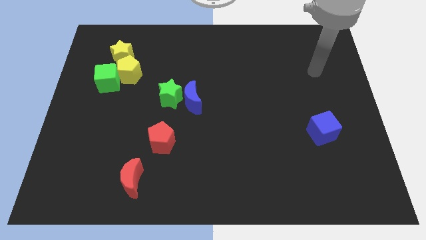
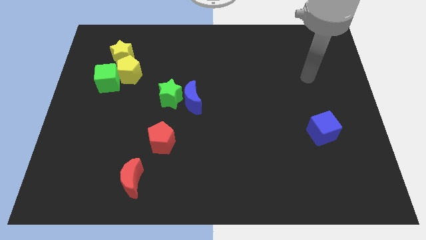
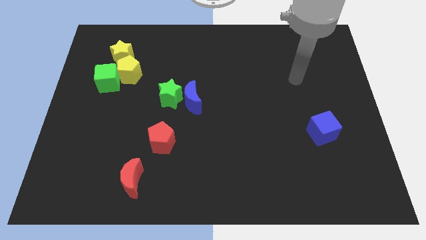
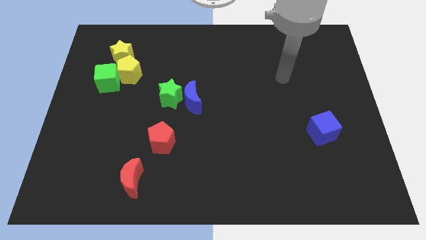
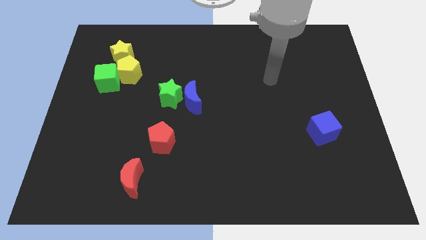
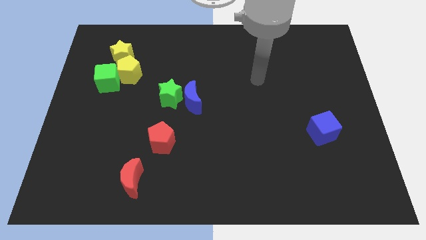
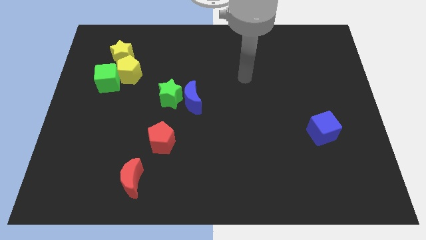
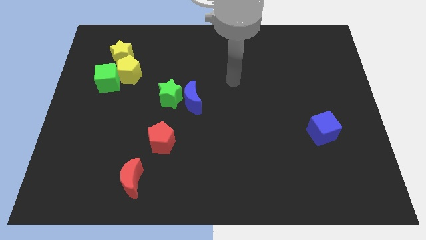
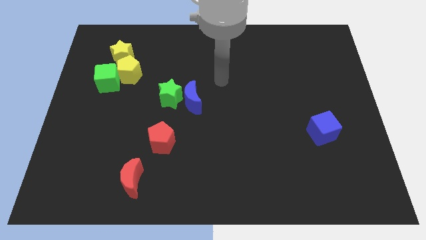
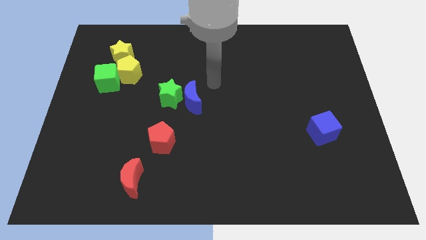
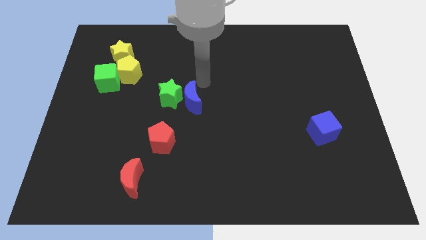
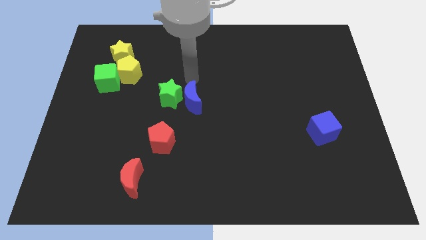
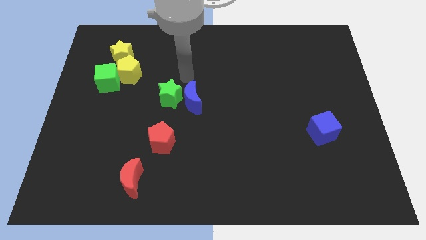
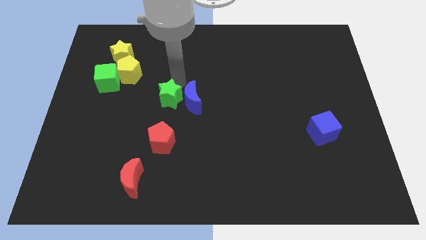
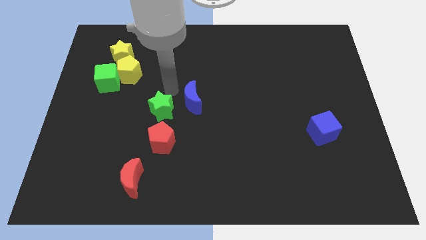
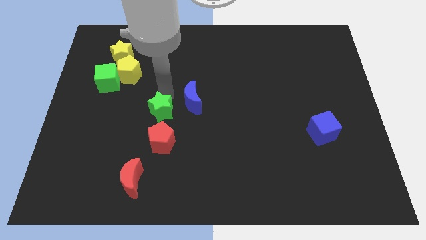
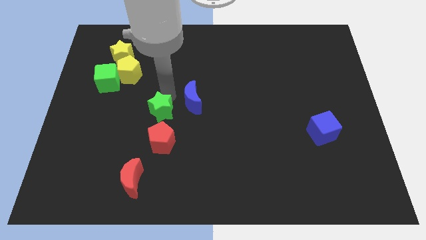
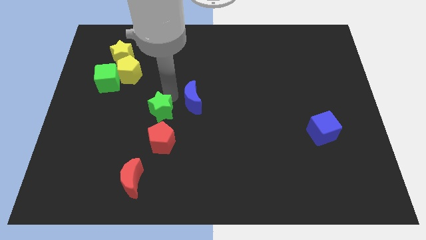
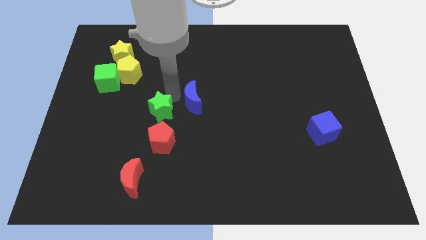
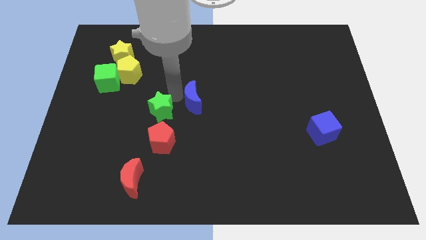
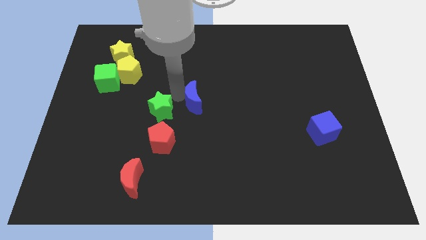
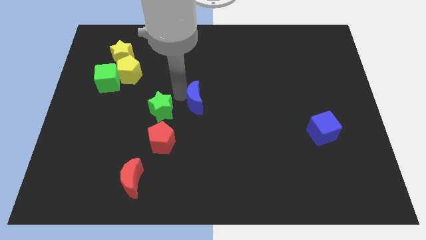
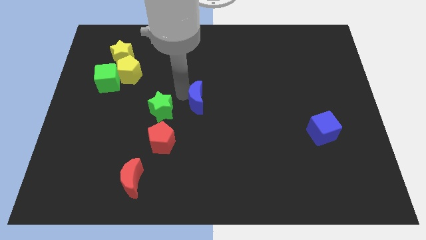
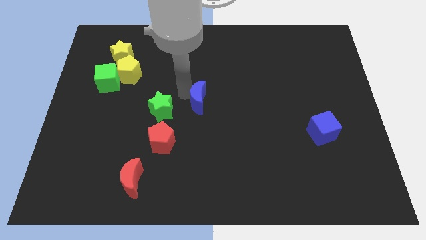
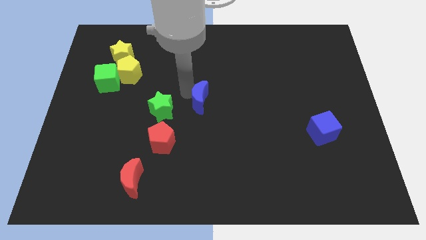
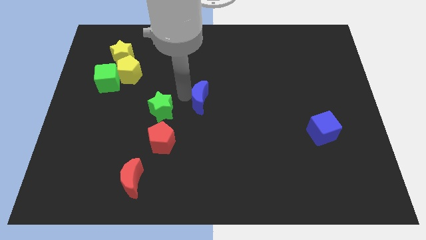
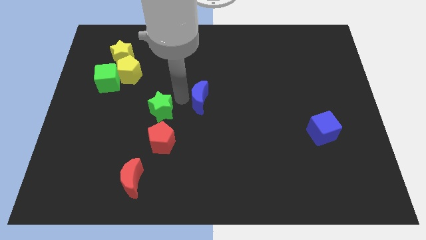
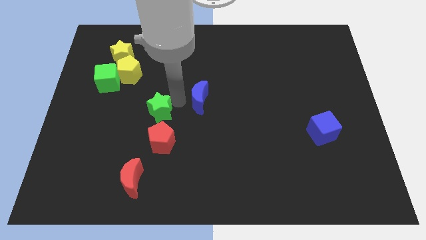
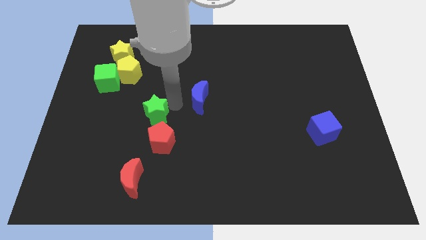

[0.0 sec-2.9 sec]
move the blue moon away from the green star

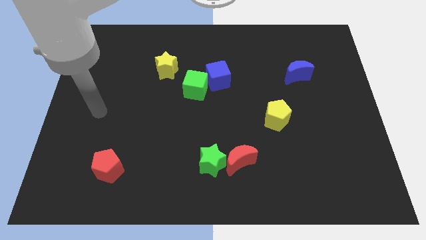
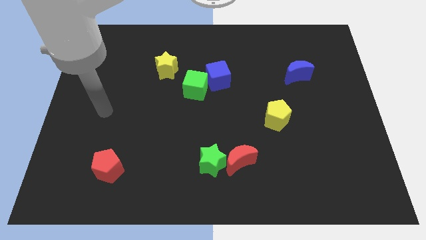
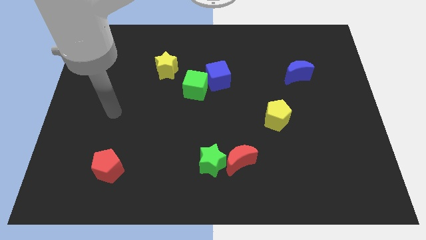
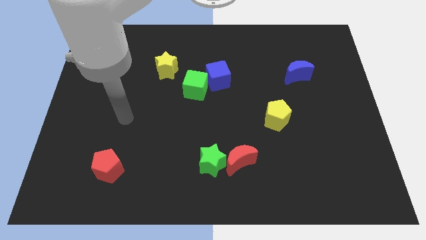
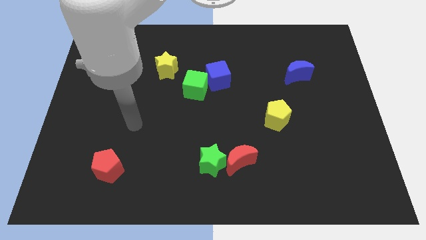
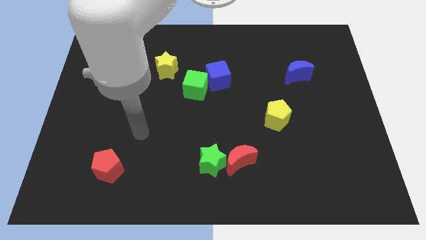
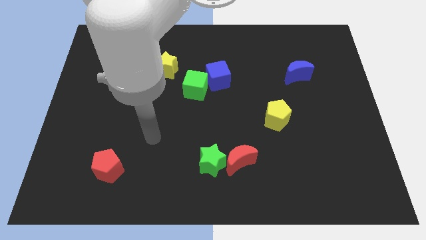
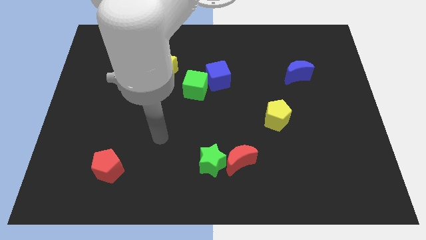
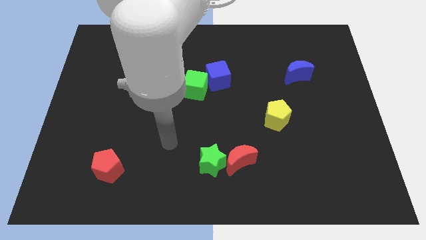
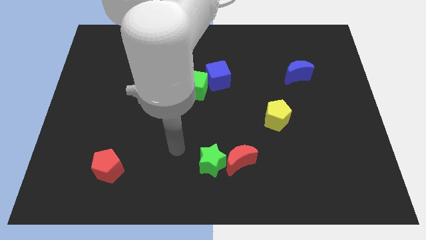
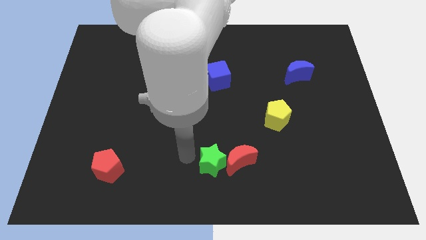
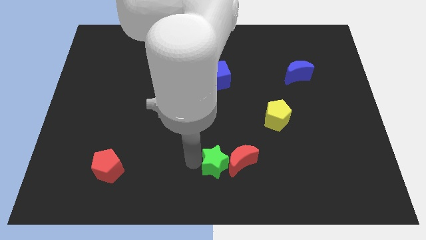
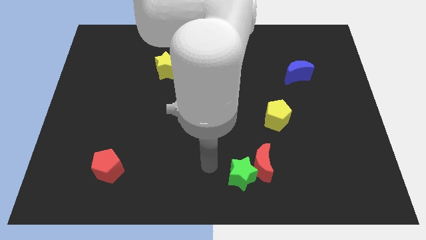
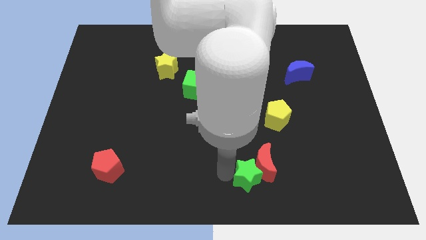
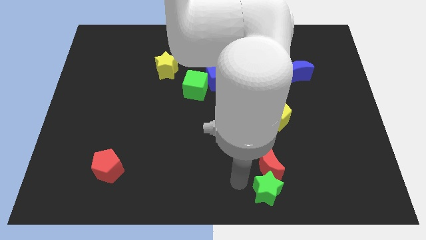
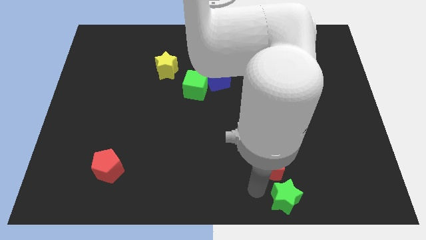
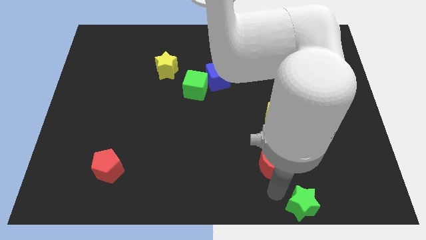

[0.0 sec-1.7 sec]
pull the red moon apart from the green star

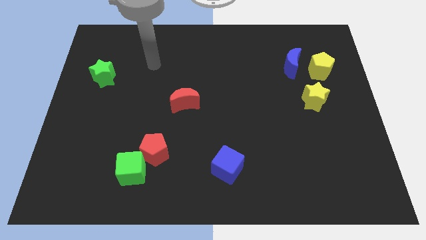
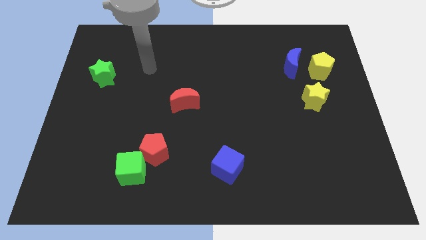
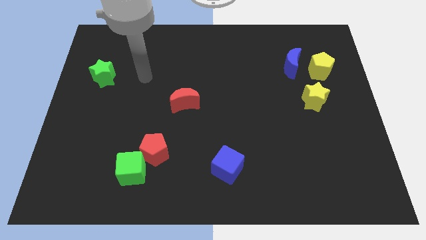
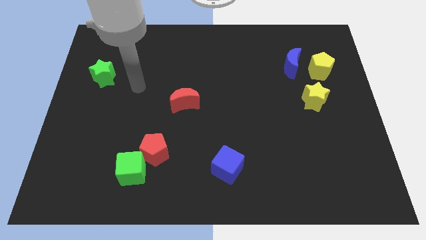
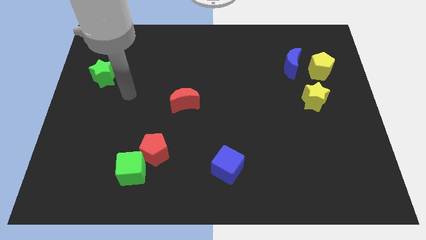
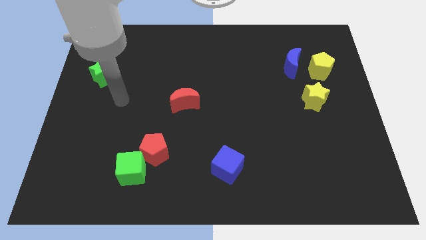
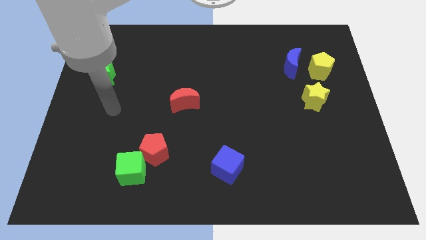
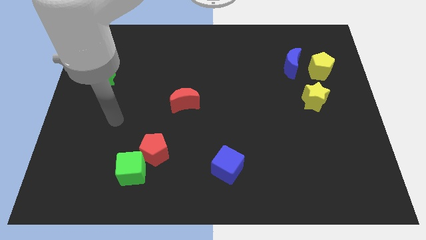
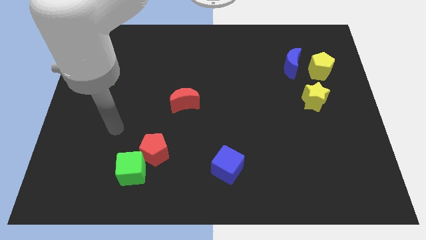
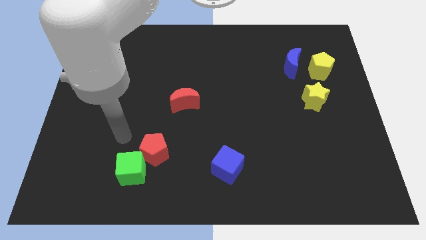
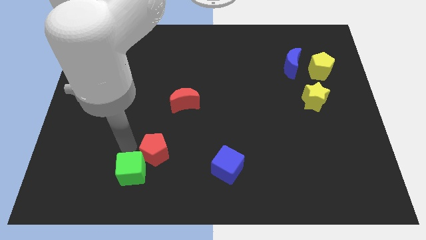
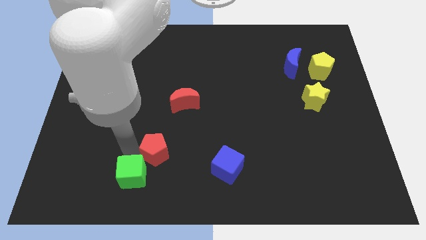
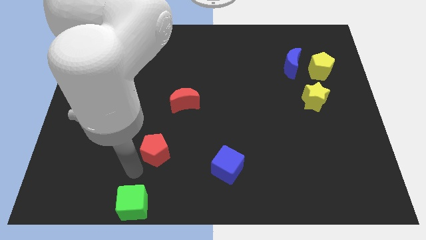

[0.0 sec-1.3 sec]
move the red pentagon away from the green cube

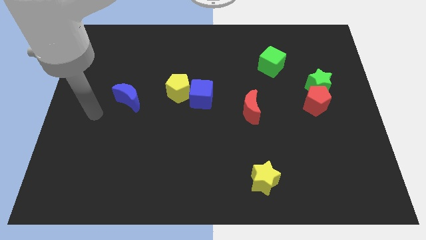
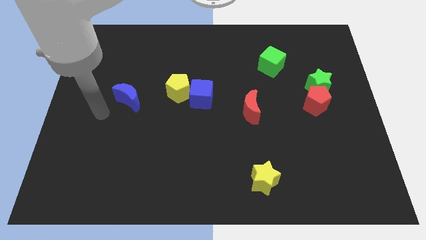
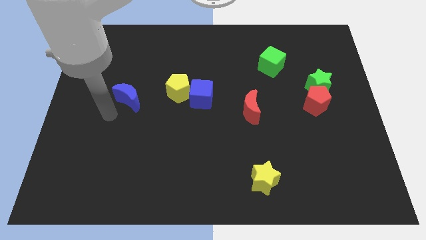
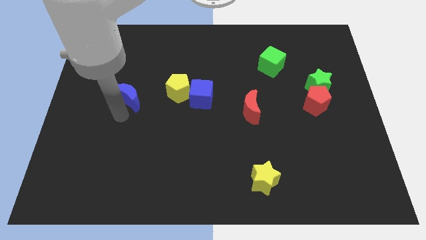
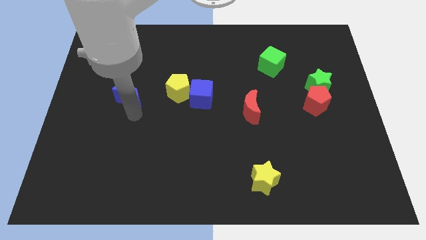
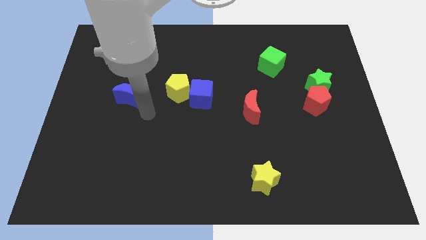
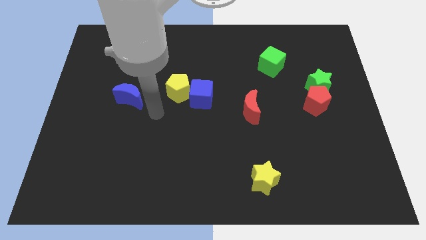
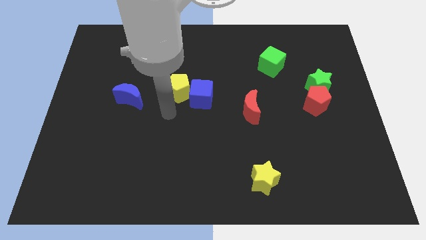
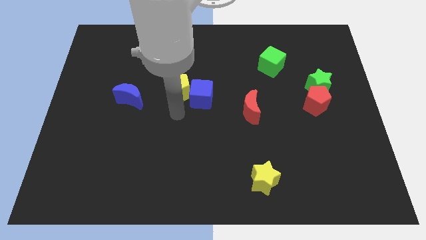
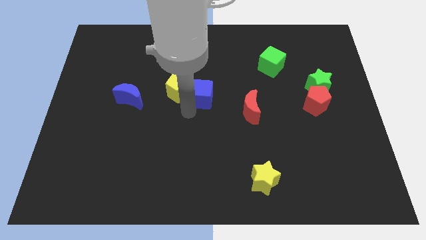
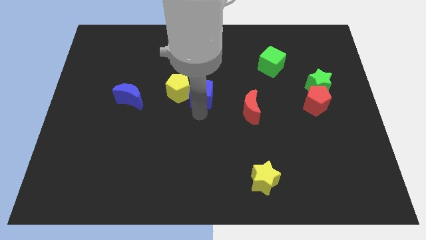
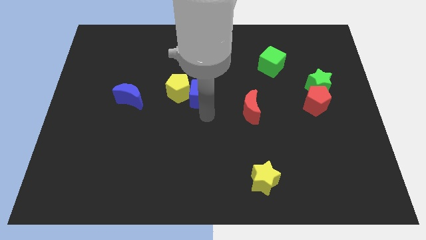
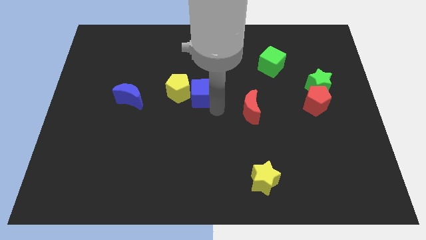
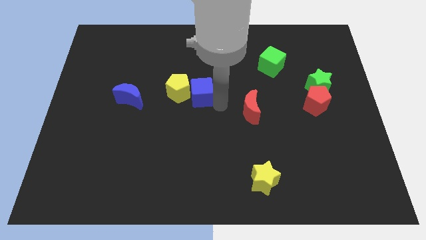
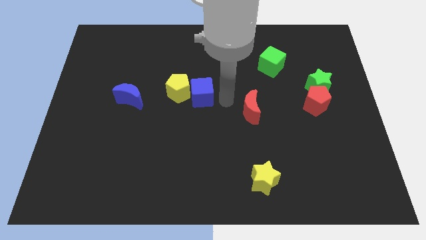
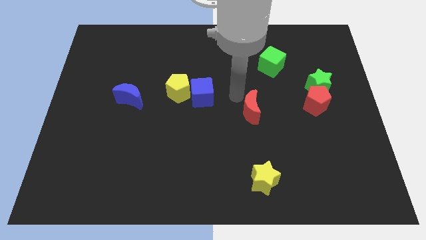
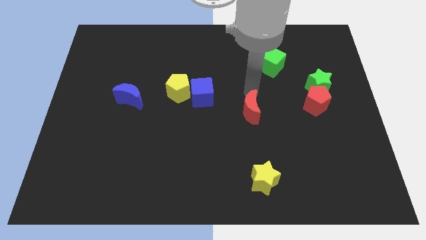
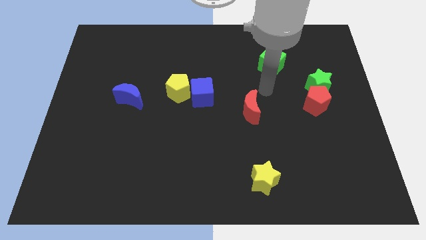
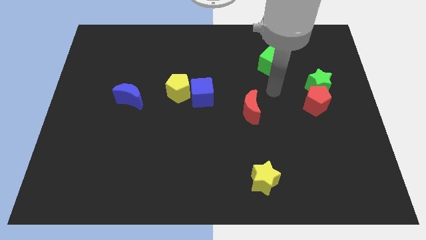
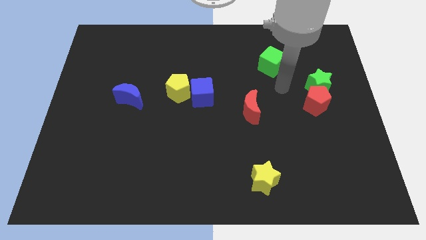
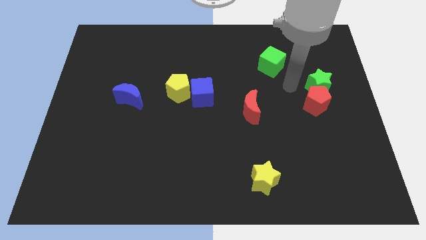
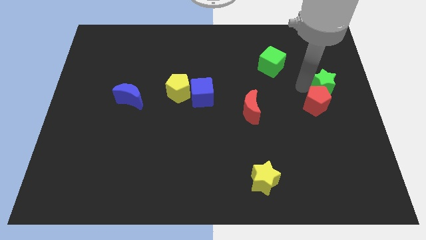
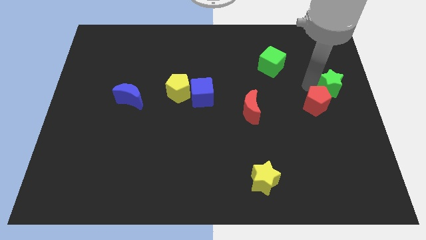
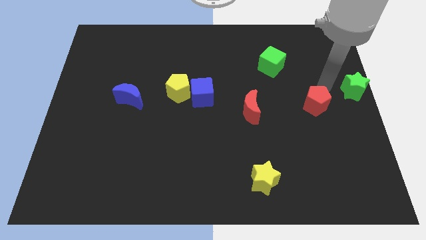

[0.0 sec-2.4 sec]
pull the red pentagon apart from the green star

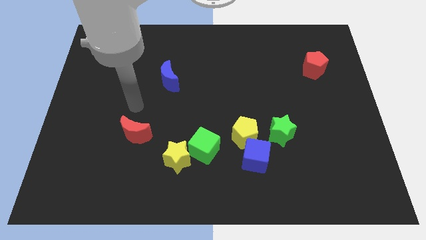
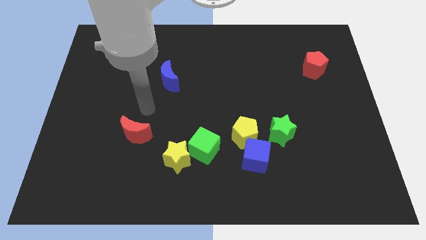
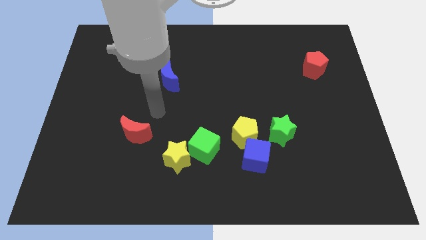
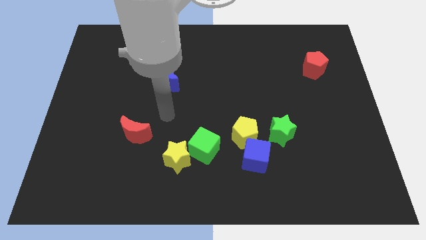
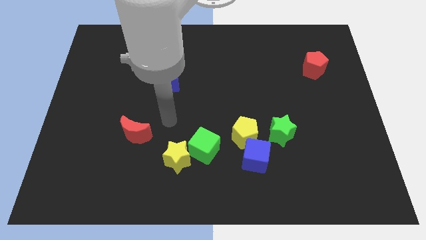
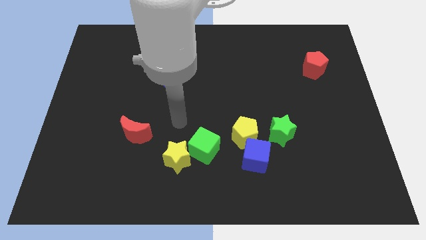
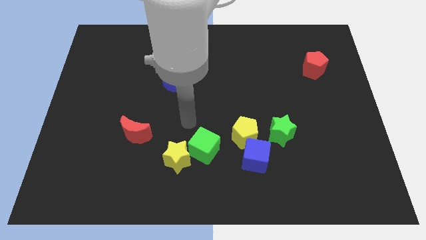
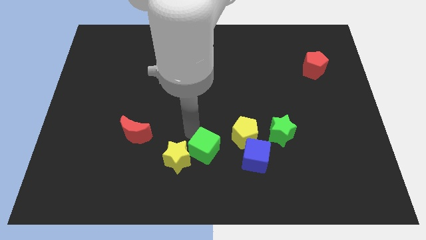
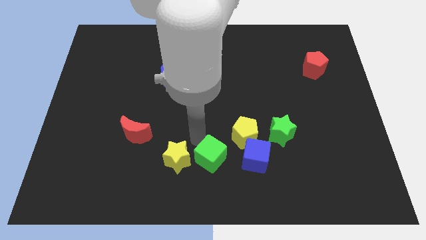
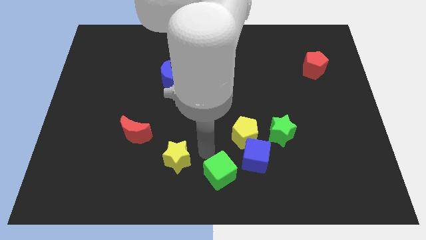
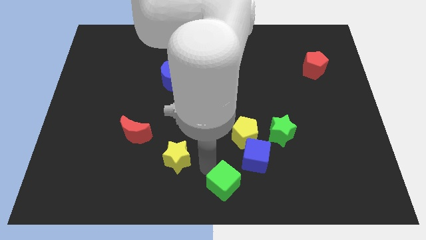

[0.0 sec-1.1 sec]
move the yellow star away from the green cube
